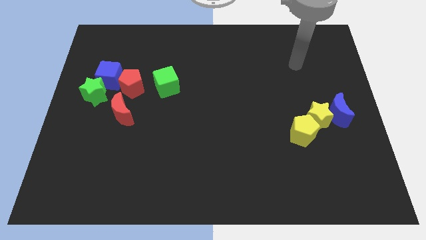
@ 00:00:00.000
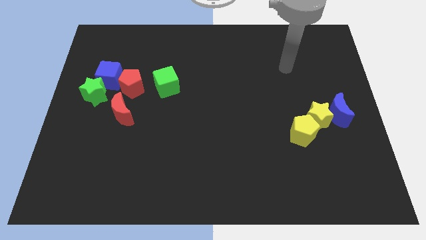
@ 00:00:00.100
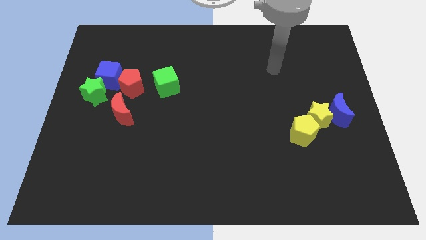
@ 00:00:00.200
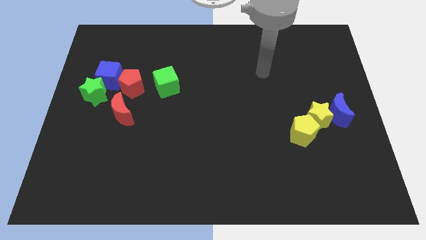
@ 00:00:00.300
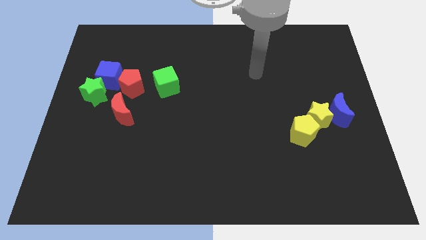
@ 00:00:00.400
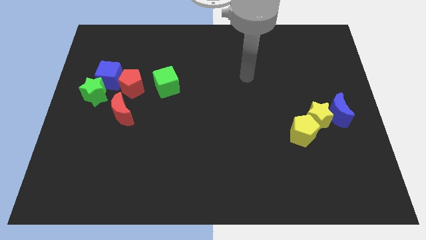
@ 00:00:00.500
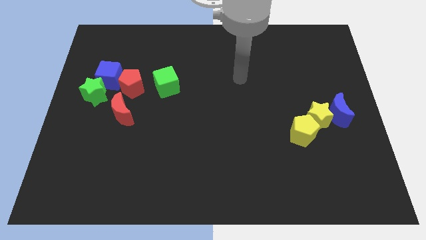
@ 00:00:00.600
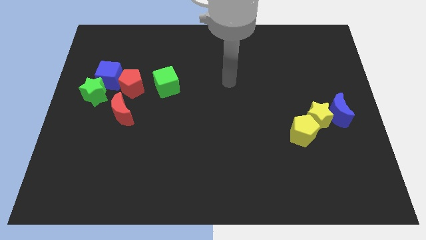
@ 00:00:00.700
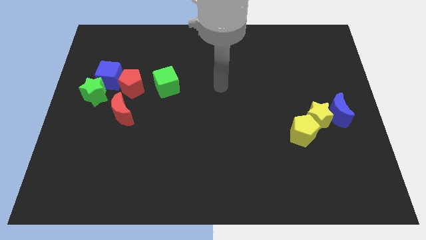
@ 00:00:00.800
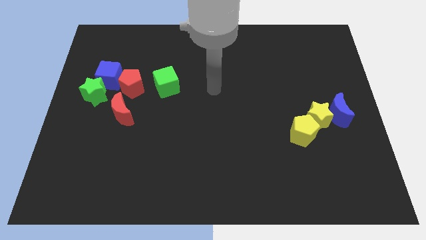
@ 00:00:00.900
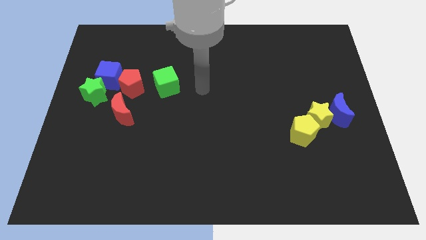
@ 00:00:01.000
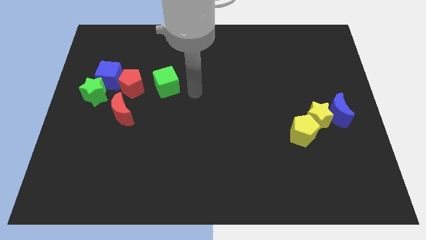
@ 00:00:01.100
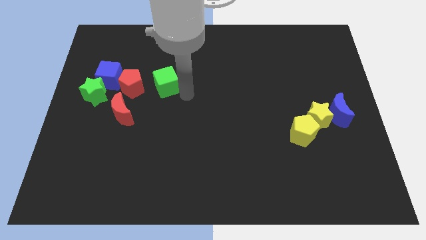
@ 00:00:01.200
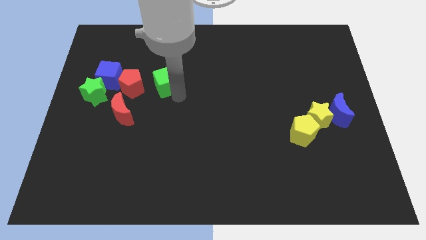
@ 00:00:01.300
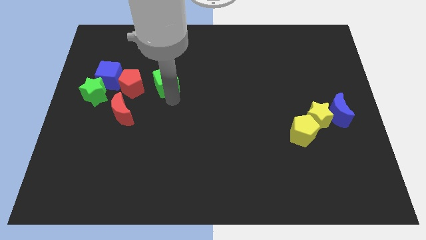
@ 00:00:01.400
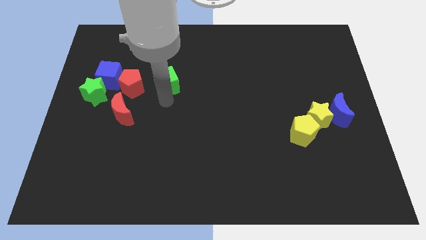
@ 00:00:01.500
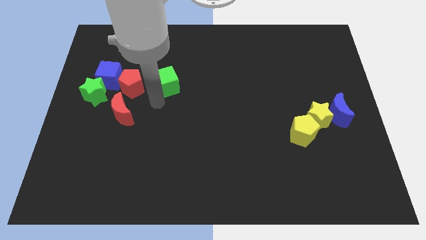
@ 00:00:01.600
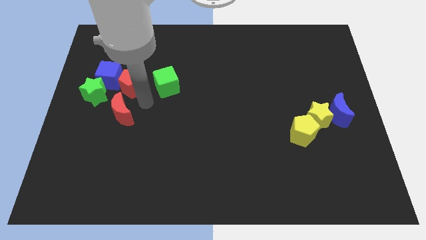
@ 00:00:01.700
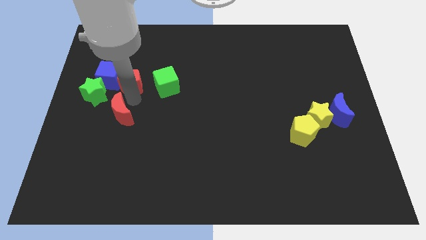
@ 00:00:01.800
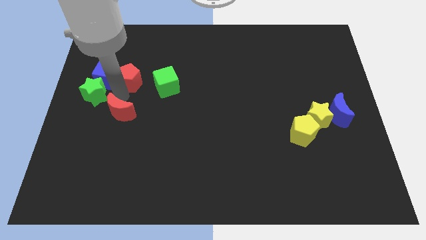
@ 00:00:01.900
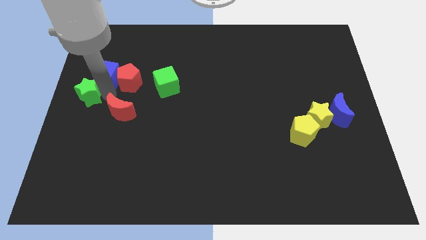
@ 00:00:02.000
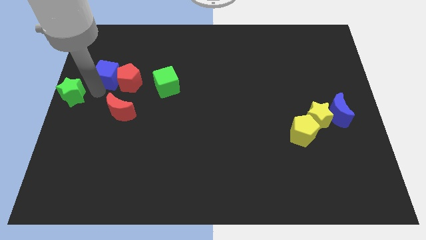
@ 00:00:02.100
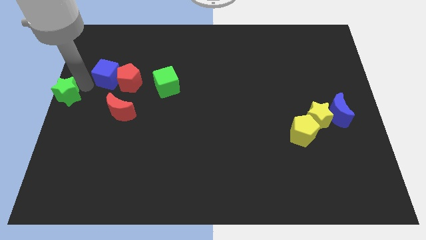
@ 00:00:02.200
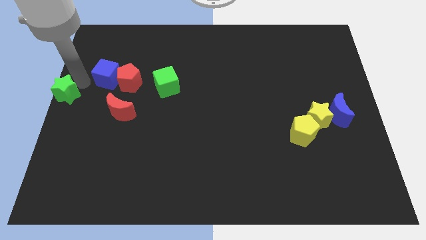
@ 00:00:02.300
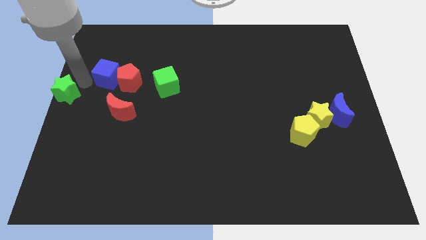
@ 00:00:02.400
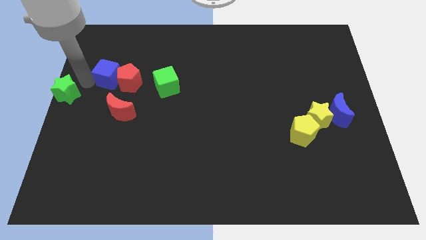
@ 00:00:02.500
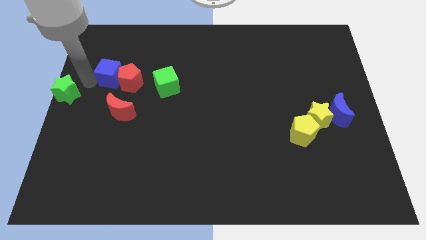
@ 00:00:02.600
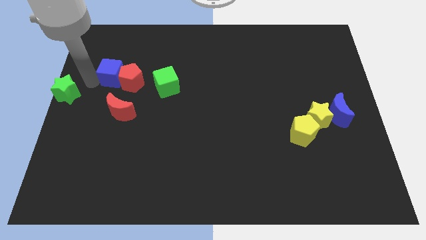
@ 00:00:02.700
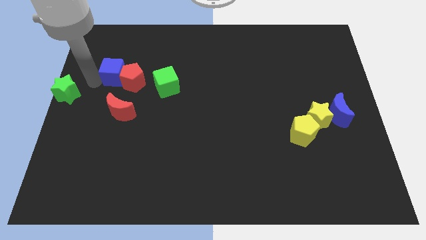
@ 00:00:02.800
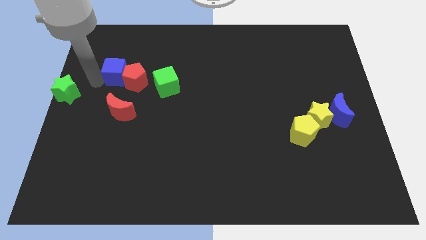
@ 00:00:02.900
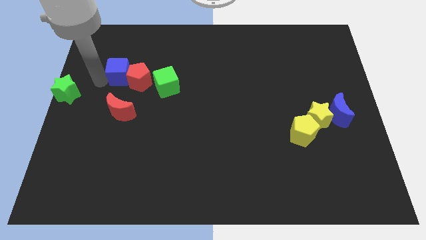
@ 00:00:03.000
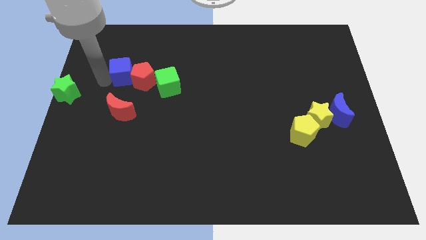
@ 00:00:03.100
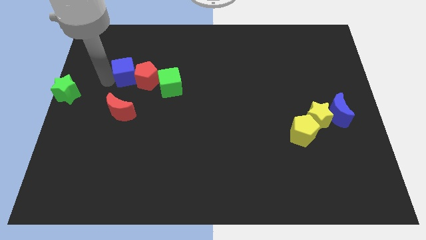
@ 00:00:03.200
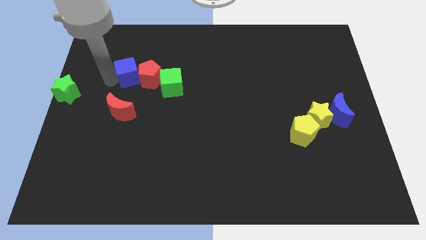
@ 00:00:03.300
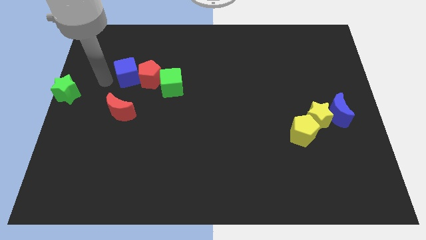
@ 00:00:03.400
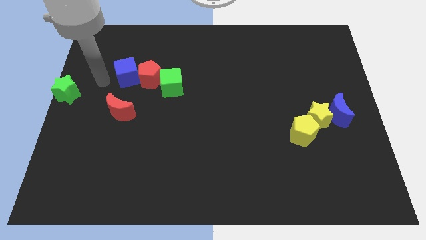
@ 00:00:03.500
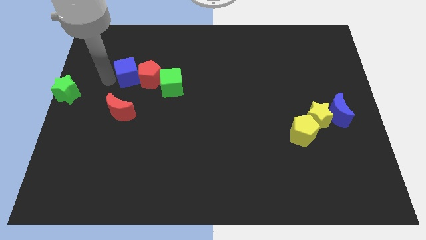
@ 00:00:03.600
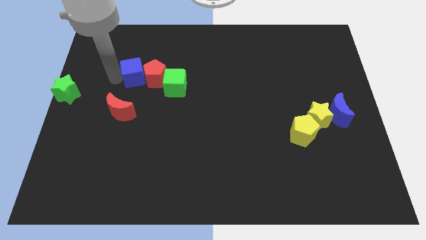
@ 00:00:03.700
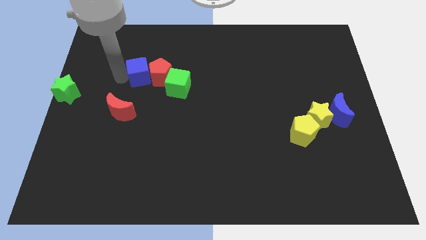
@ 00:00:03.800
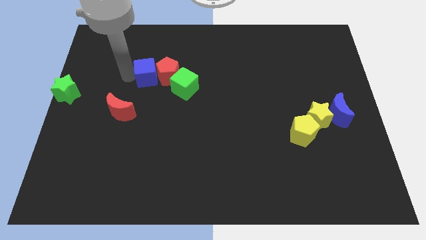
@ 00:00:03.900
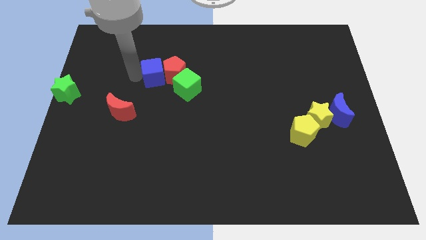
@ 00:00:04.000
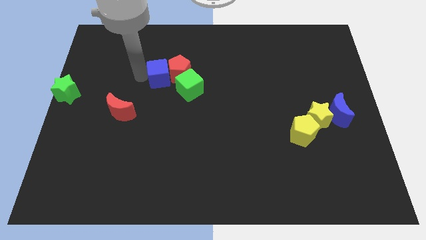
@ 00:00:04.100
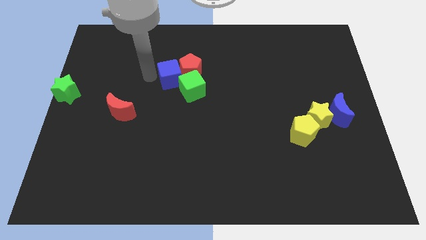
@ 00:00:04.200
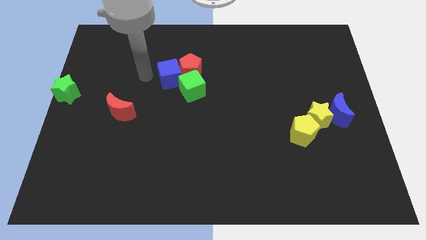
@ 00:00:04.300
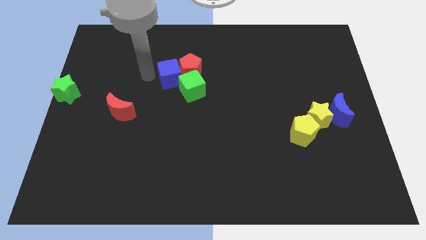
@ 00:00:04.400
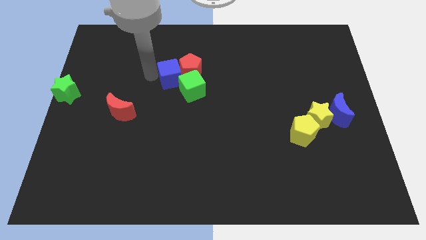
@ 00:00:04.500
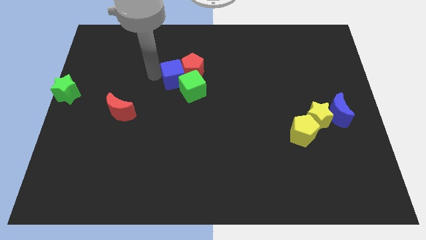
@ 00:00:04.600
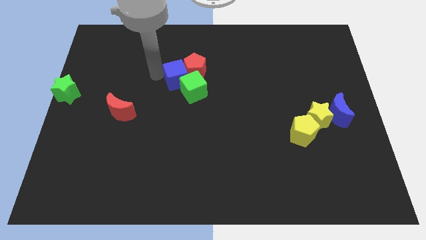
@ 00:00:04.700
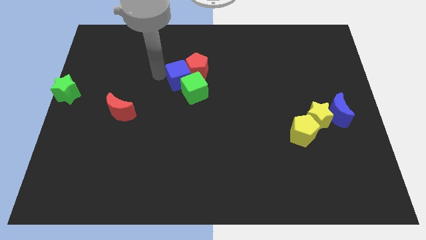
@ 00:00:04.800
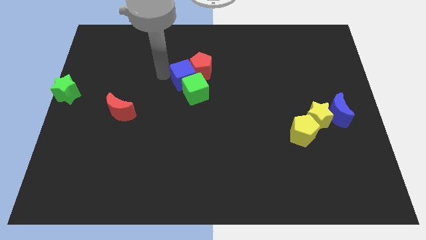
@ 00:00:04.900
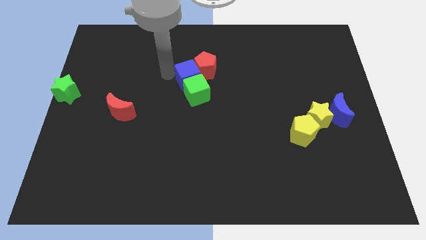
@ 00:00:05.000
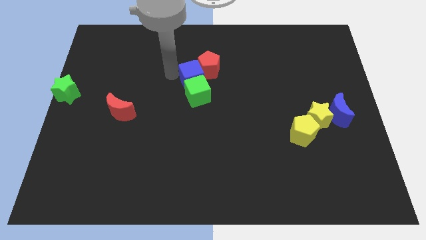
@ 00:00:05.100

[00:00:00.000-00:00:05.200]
slide the blue cube right

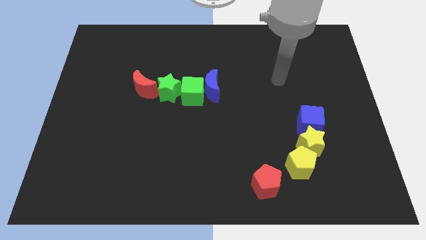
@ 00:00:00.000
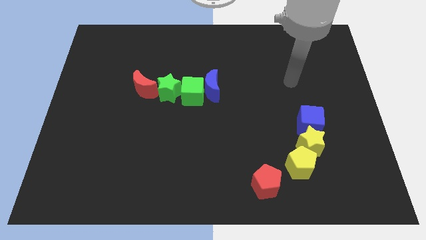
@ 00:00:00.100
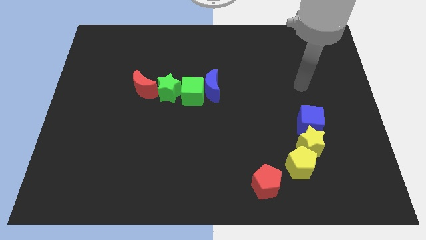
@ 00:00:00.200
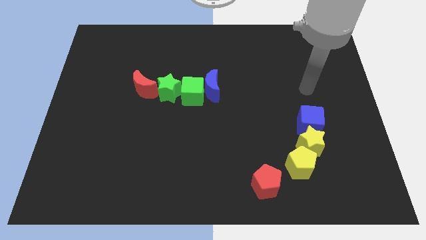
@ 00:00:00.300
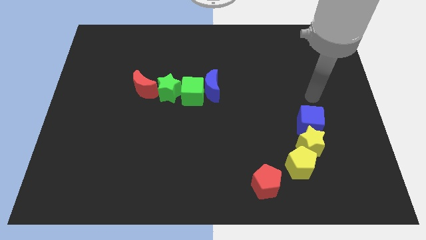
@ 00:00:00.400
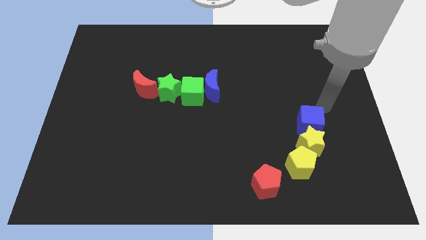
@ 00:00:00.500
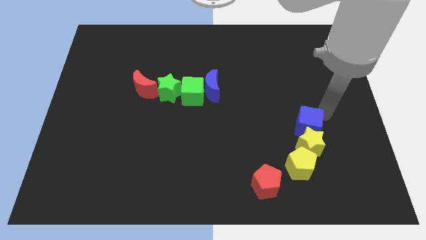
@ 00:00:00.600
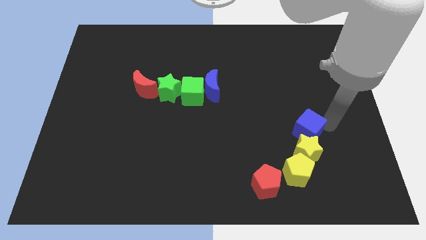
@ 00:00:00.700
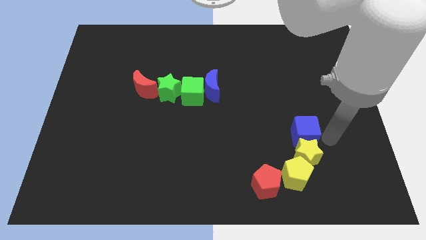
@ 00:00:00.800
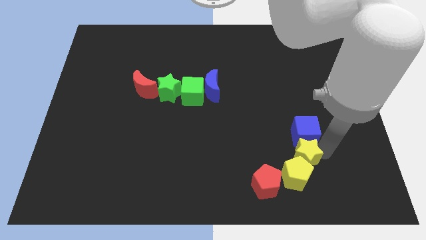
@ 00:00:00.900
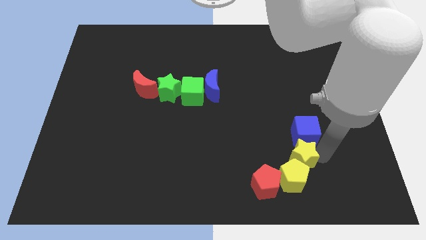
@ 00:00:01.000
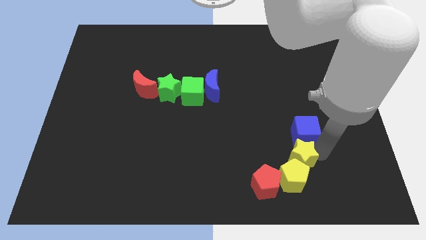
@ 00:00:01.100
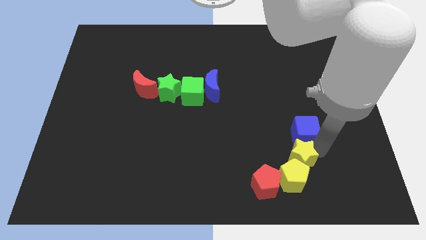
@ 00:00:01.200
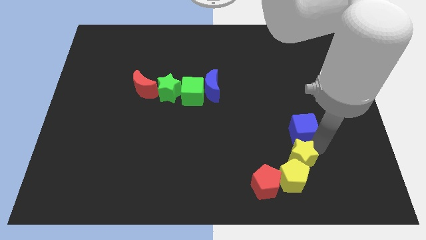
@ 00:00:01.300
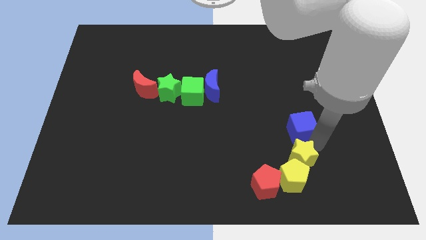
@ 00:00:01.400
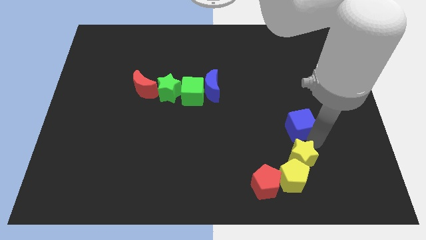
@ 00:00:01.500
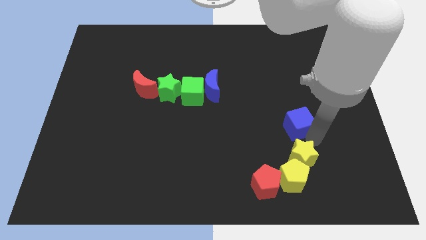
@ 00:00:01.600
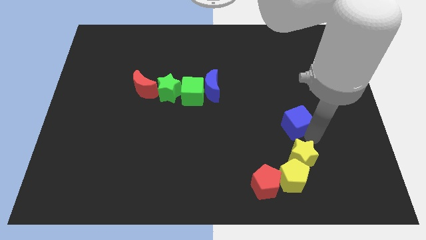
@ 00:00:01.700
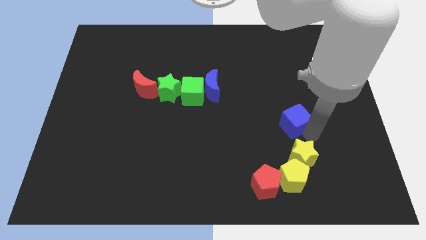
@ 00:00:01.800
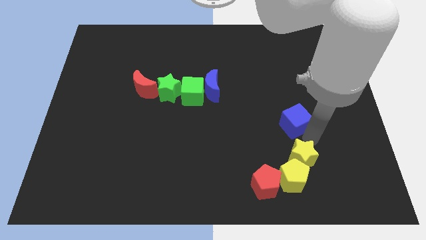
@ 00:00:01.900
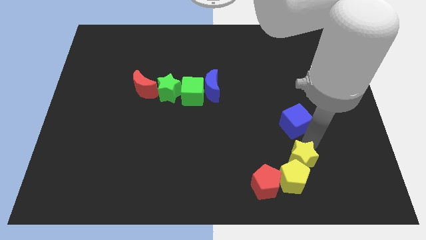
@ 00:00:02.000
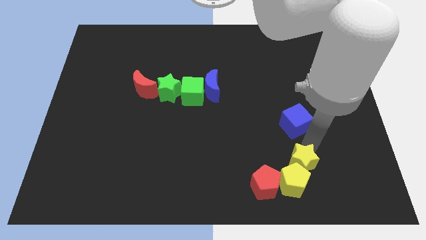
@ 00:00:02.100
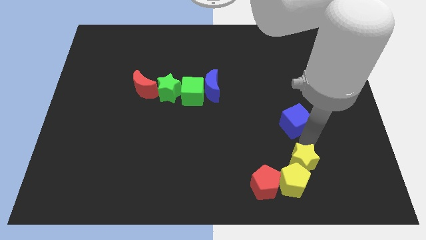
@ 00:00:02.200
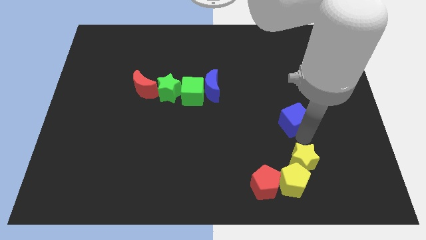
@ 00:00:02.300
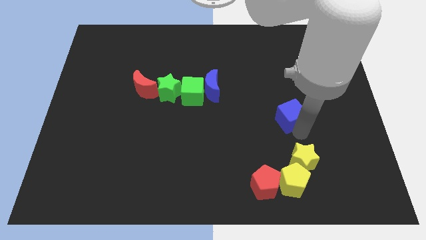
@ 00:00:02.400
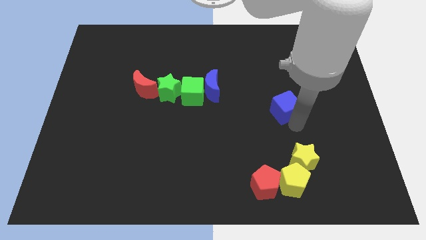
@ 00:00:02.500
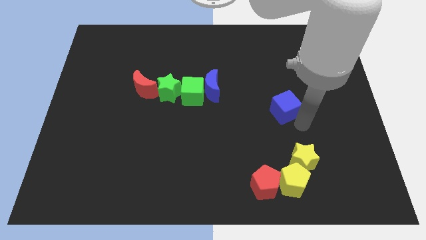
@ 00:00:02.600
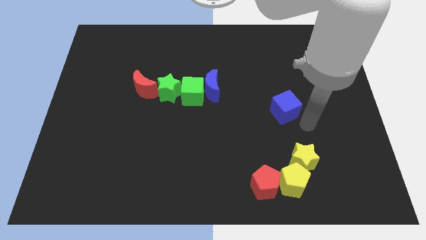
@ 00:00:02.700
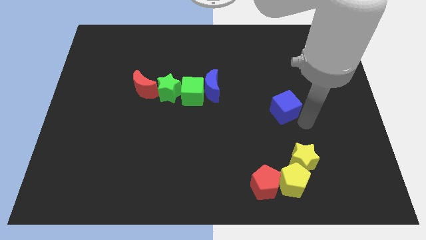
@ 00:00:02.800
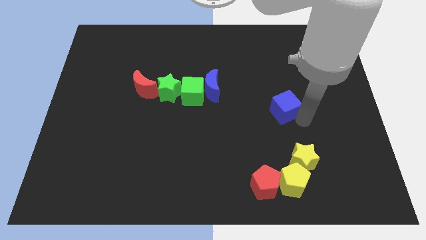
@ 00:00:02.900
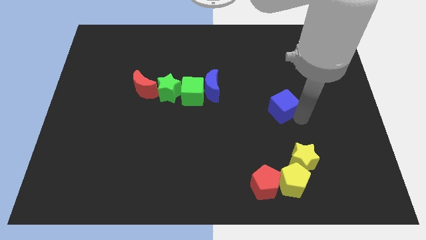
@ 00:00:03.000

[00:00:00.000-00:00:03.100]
slide the blue cube a bit up and then to the left
